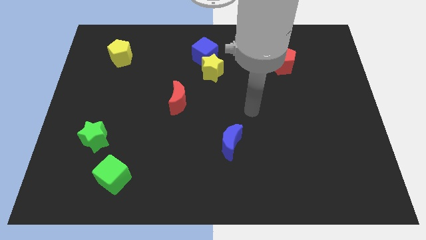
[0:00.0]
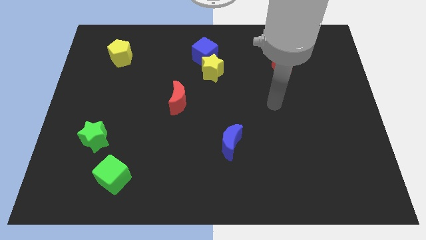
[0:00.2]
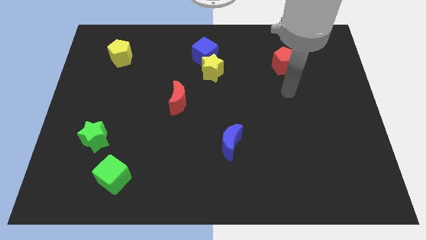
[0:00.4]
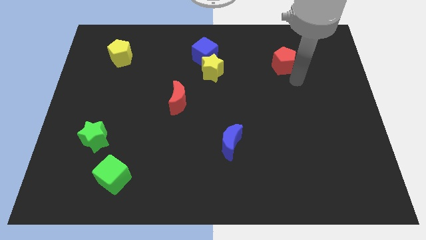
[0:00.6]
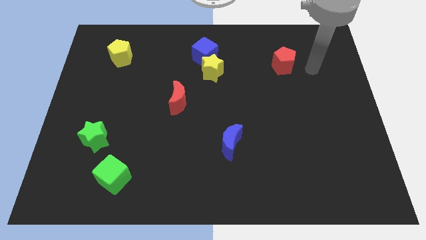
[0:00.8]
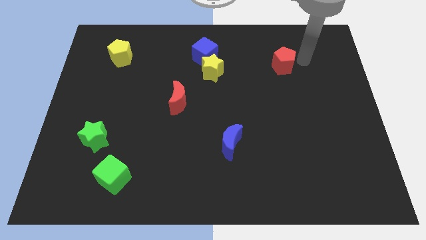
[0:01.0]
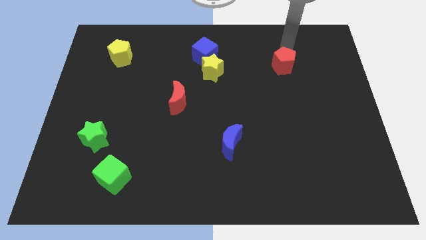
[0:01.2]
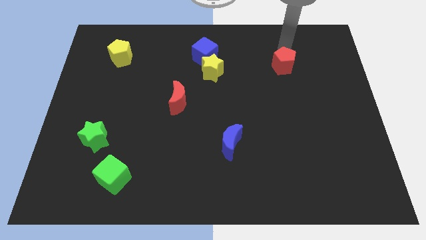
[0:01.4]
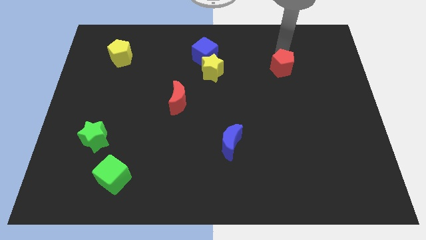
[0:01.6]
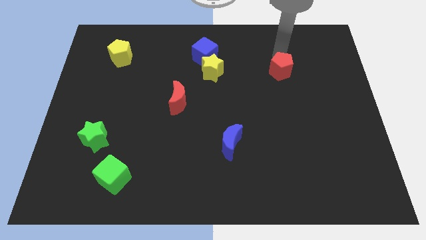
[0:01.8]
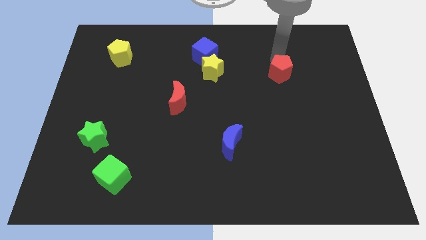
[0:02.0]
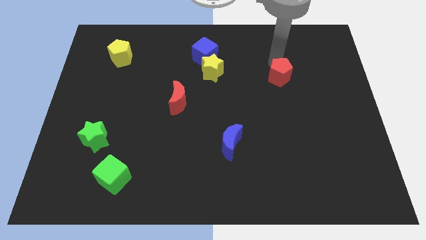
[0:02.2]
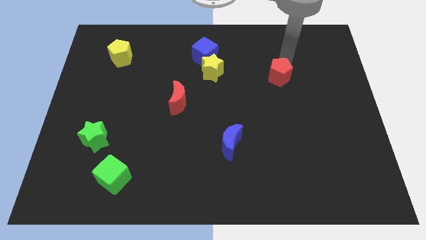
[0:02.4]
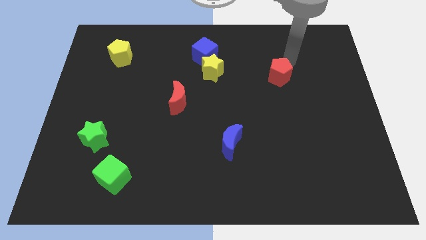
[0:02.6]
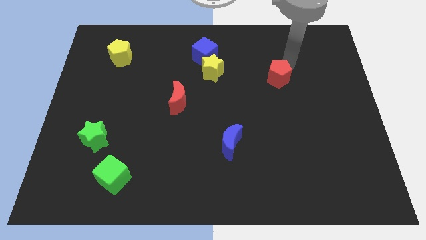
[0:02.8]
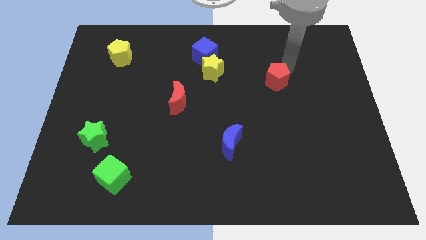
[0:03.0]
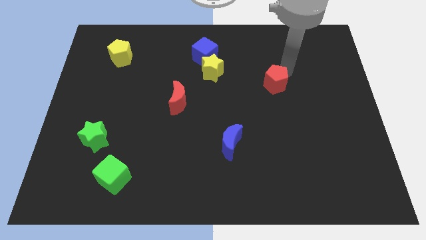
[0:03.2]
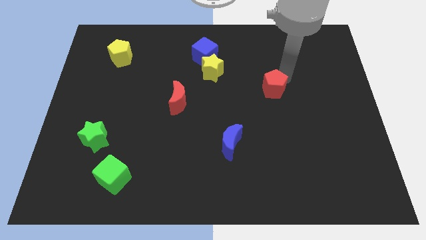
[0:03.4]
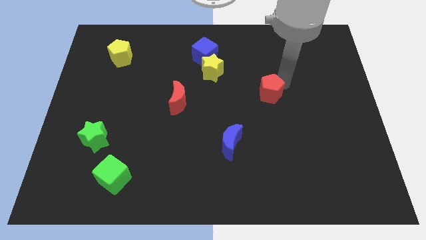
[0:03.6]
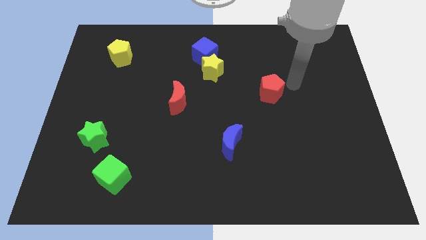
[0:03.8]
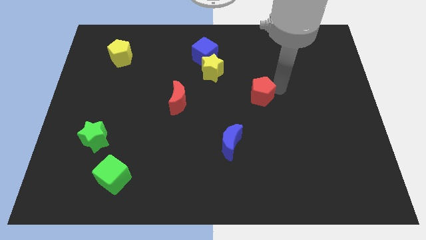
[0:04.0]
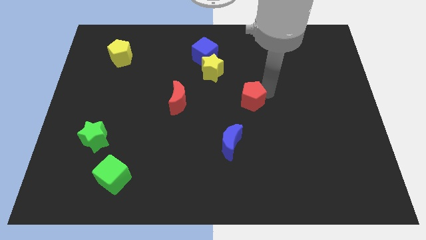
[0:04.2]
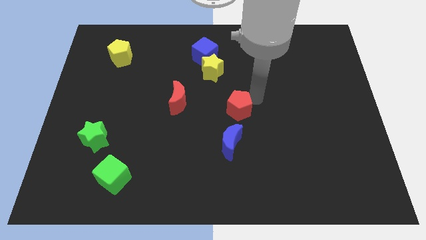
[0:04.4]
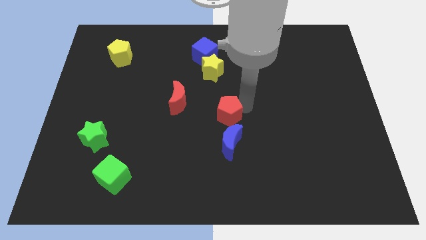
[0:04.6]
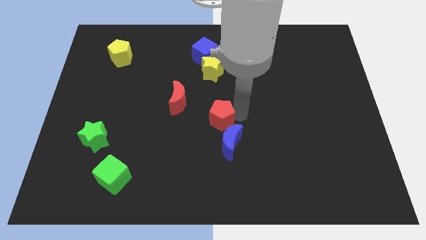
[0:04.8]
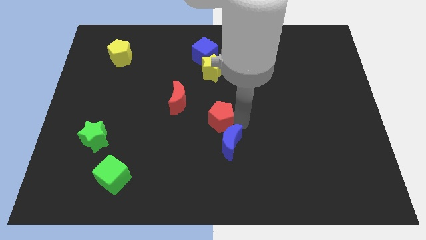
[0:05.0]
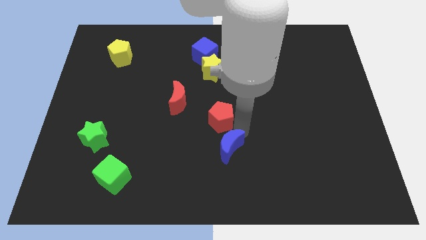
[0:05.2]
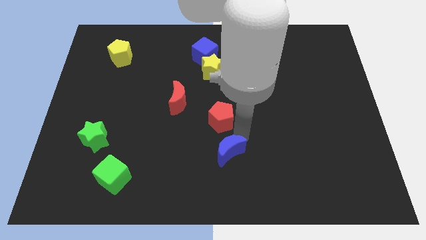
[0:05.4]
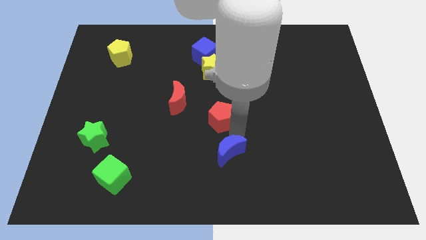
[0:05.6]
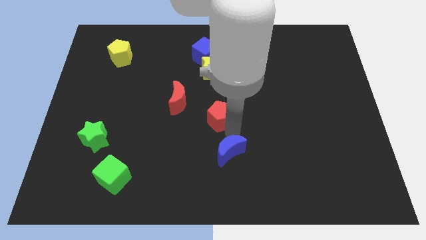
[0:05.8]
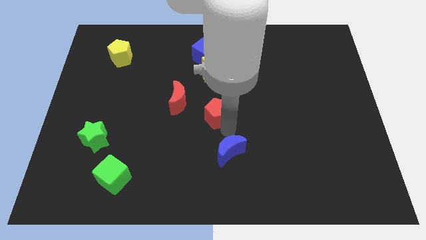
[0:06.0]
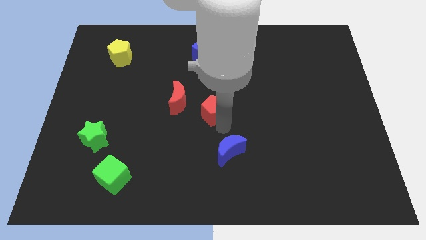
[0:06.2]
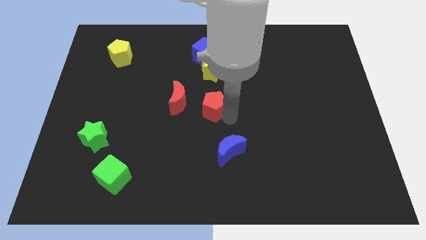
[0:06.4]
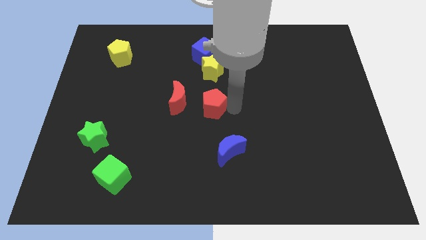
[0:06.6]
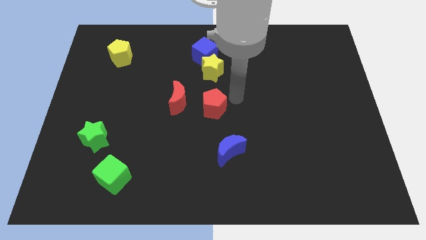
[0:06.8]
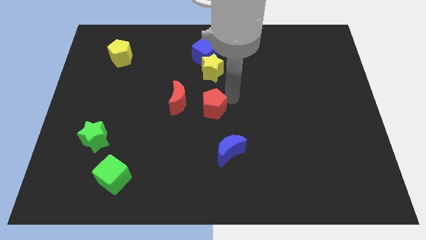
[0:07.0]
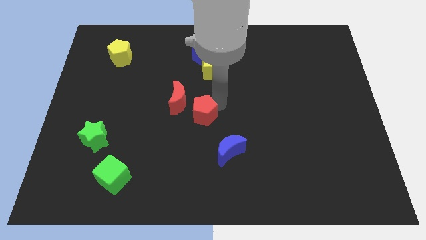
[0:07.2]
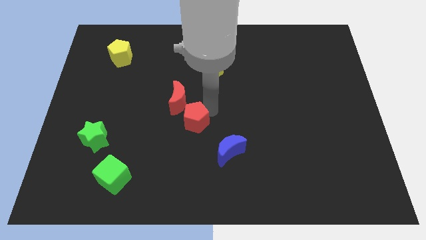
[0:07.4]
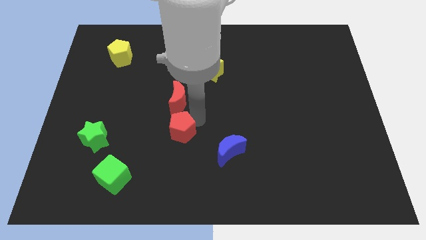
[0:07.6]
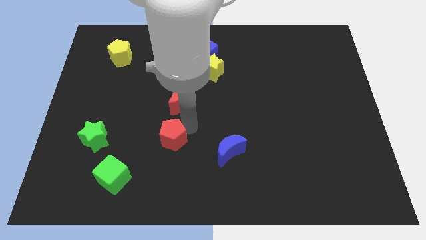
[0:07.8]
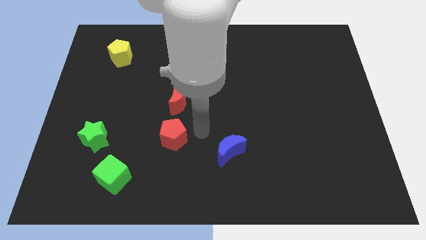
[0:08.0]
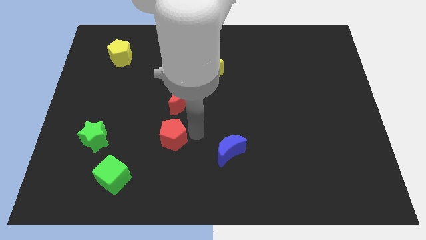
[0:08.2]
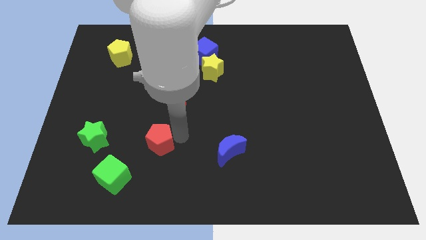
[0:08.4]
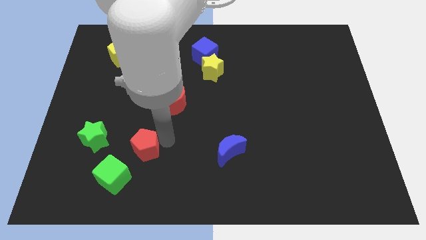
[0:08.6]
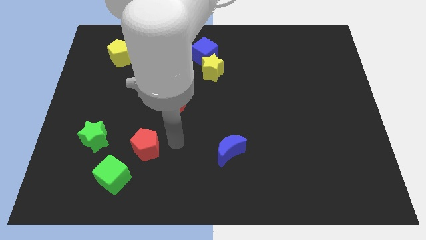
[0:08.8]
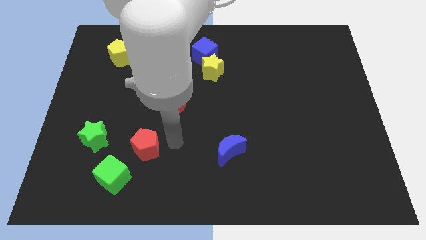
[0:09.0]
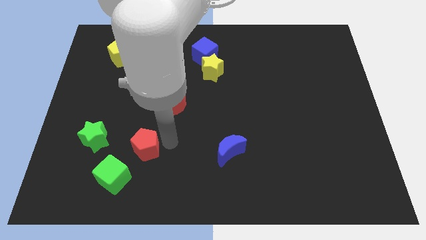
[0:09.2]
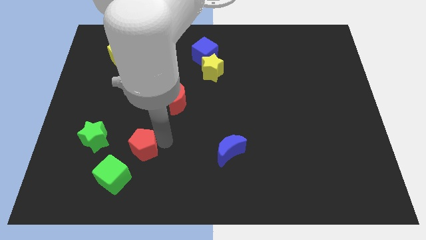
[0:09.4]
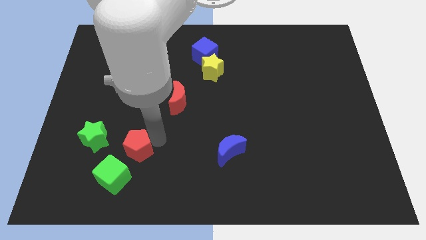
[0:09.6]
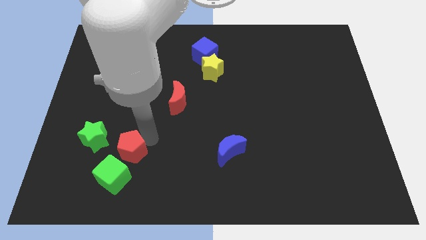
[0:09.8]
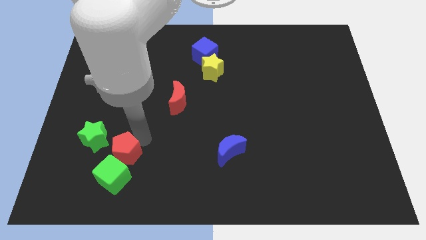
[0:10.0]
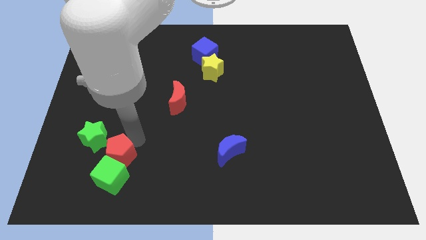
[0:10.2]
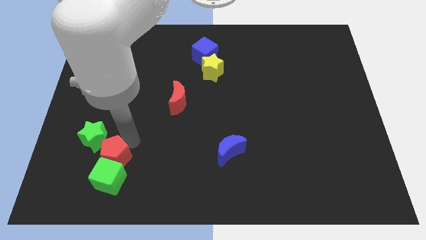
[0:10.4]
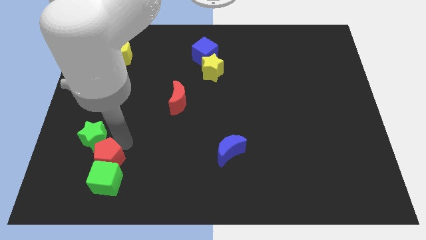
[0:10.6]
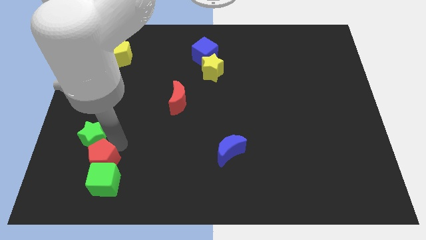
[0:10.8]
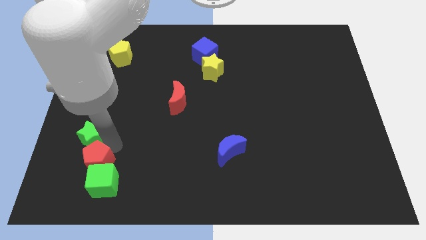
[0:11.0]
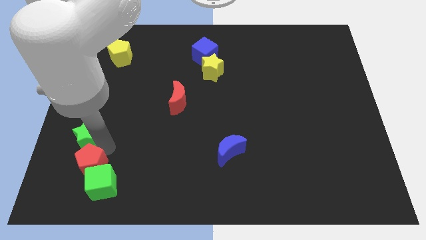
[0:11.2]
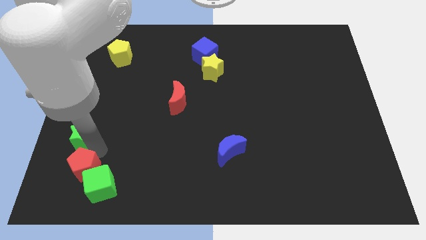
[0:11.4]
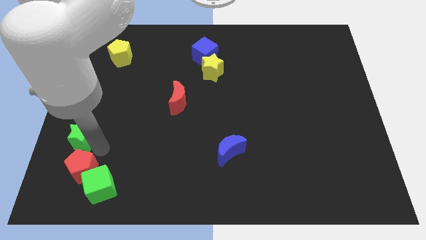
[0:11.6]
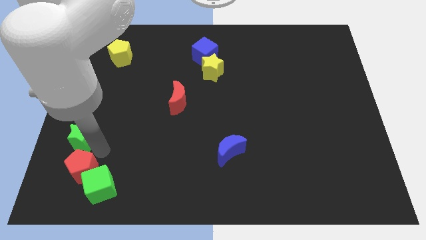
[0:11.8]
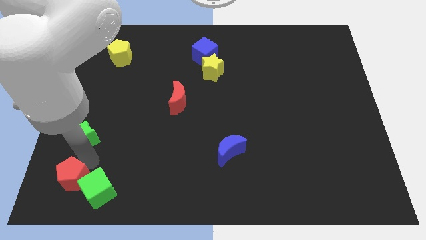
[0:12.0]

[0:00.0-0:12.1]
push the red pentagon to the bottom left corner

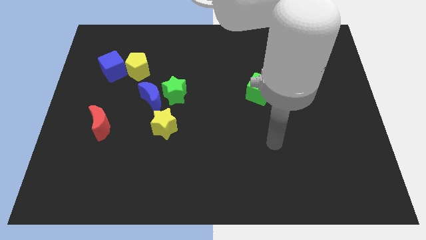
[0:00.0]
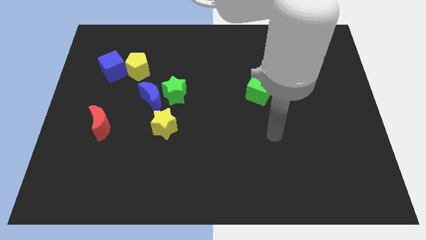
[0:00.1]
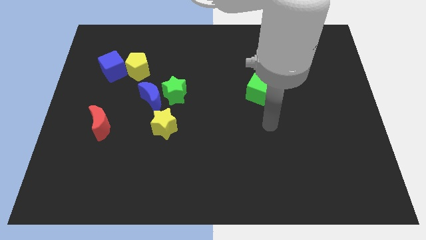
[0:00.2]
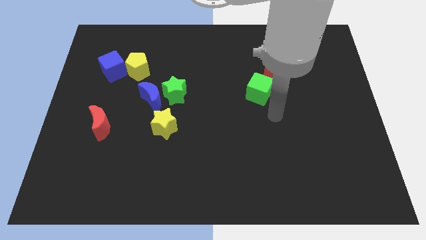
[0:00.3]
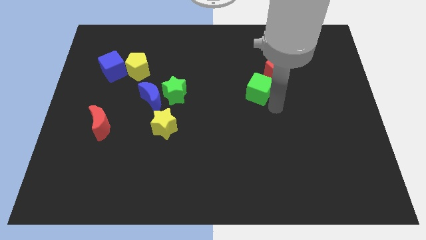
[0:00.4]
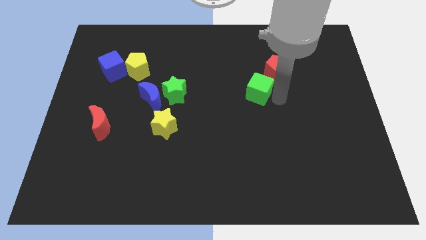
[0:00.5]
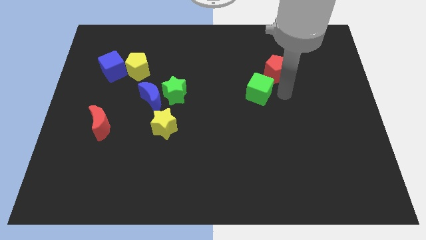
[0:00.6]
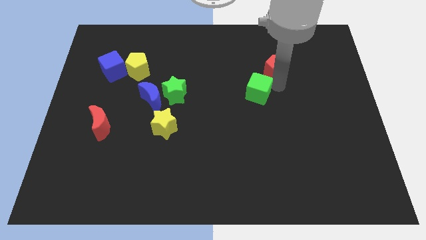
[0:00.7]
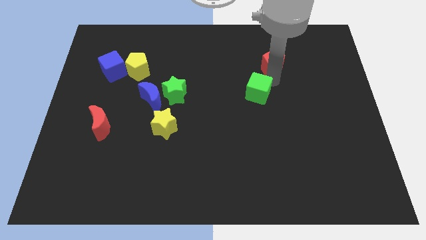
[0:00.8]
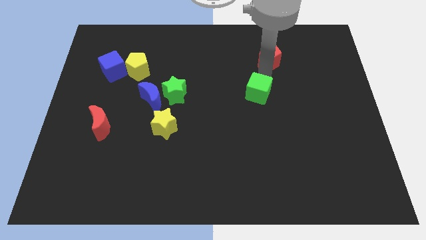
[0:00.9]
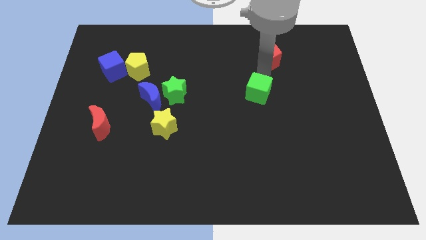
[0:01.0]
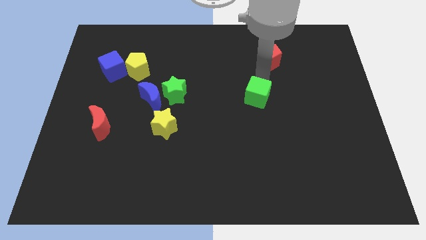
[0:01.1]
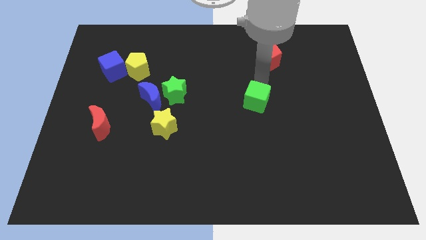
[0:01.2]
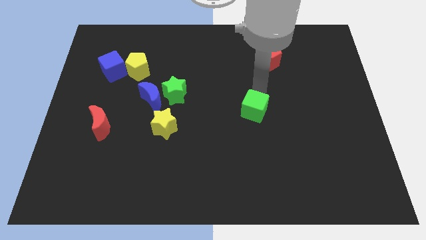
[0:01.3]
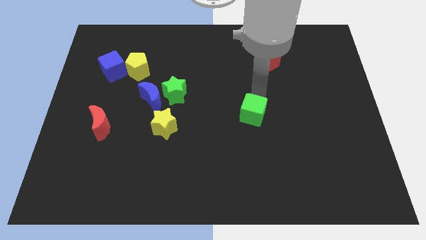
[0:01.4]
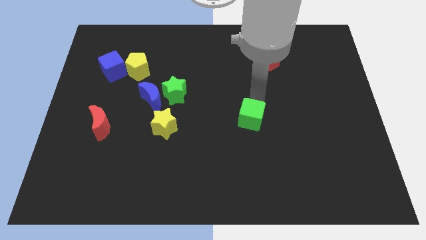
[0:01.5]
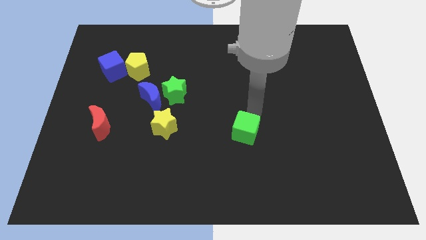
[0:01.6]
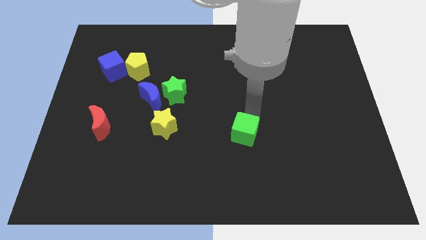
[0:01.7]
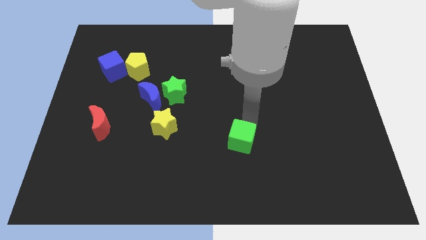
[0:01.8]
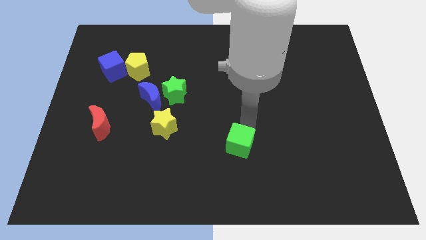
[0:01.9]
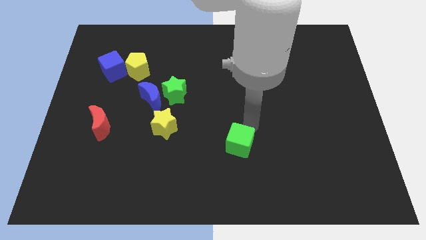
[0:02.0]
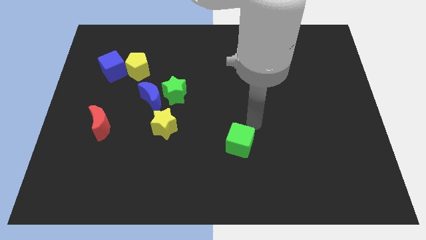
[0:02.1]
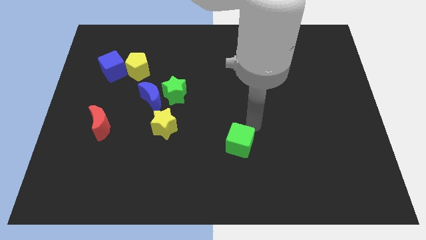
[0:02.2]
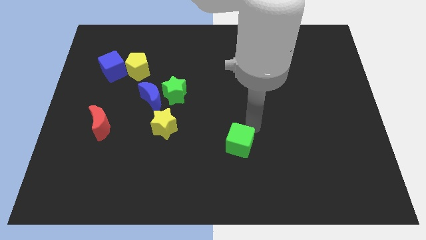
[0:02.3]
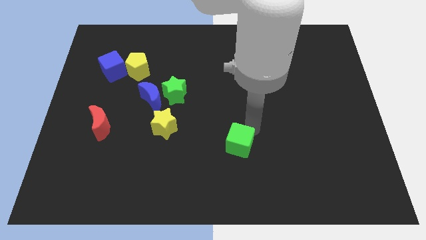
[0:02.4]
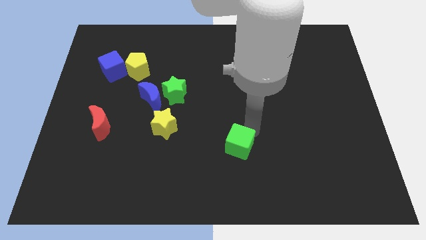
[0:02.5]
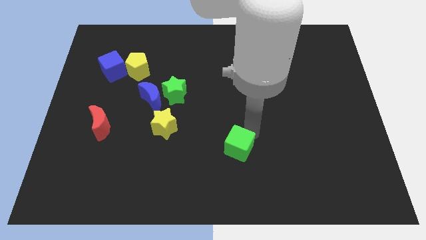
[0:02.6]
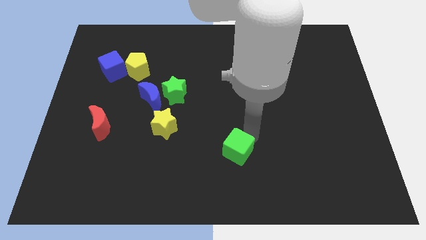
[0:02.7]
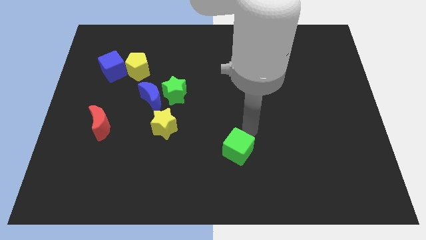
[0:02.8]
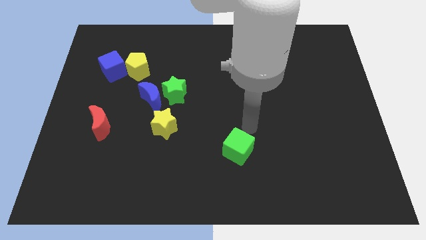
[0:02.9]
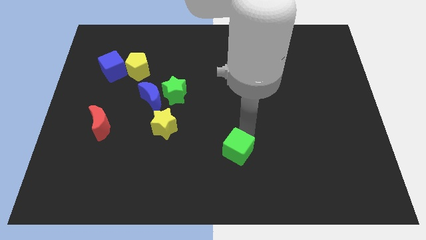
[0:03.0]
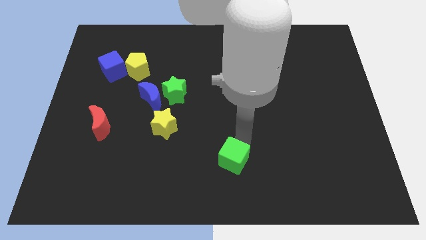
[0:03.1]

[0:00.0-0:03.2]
slide the green cube to the bottom side
